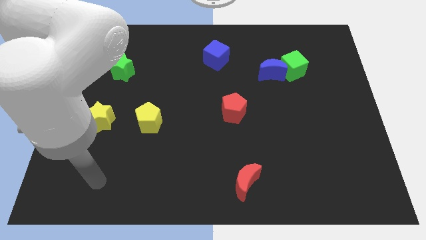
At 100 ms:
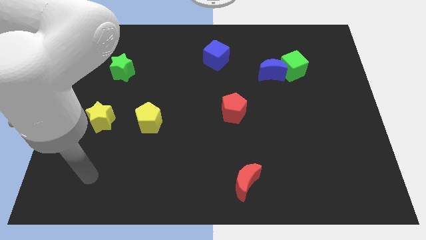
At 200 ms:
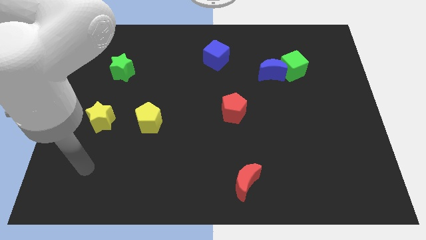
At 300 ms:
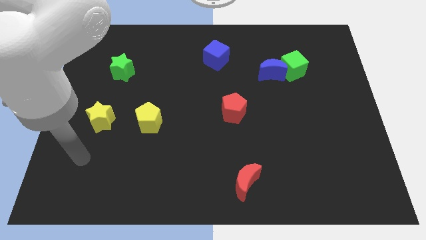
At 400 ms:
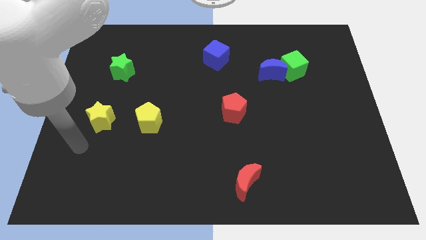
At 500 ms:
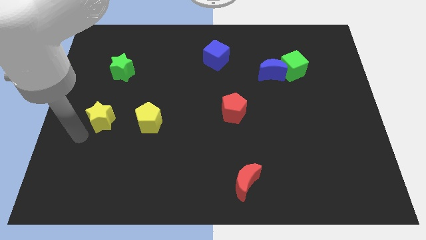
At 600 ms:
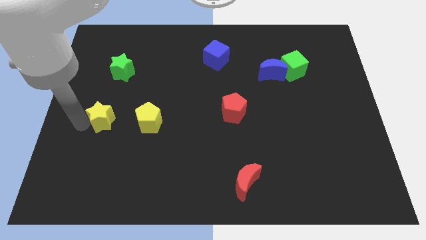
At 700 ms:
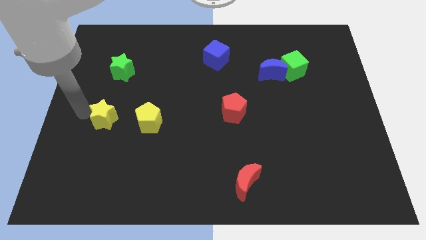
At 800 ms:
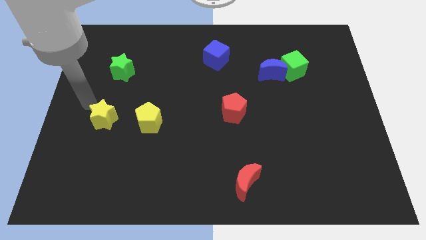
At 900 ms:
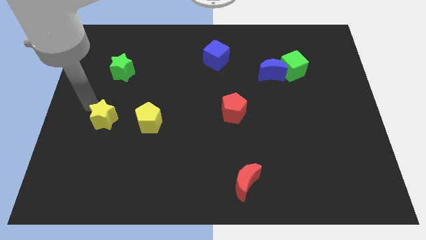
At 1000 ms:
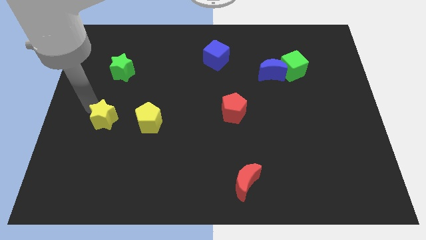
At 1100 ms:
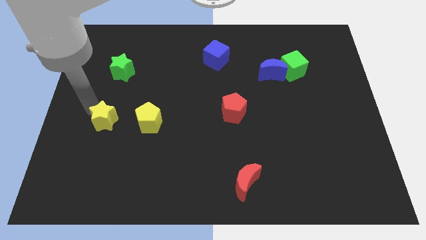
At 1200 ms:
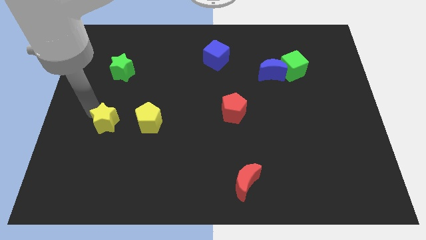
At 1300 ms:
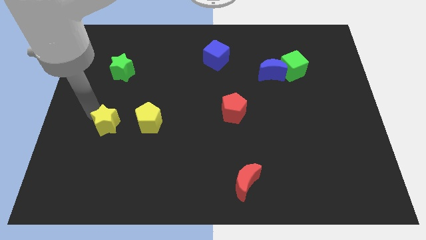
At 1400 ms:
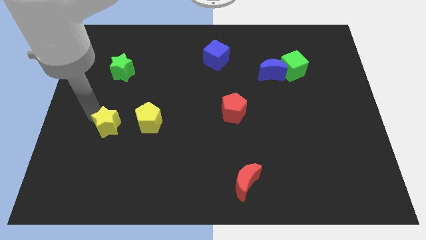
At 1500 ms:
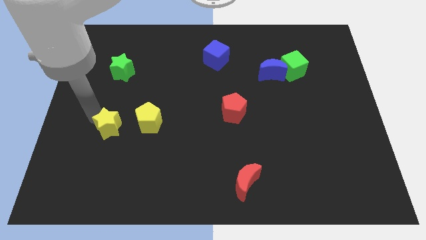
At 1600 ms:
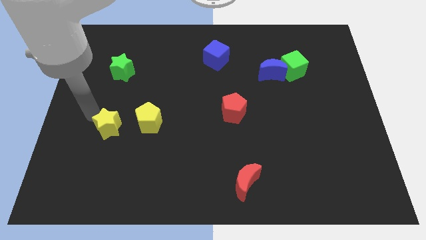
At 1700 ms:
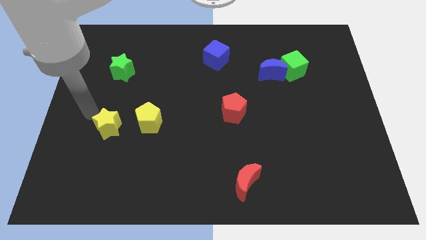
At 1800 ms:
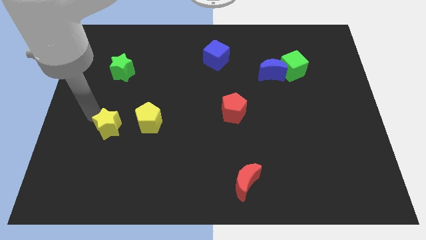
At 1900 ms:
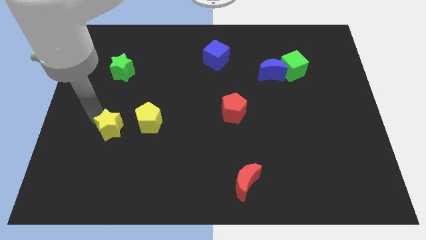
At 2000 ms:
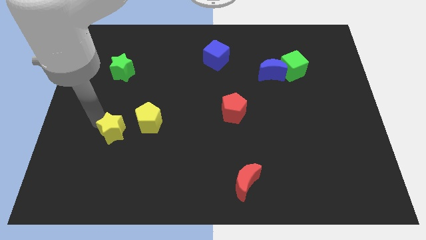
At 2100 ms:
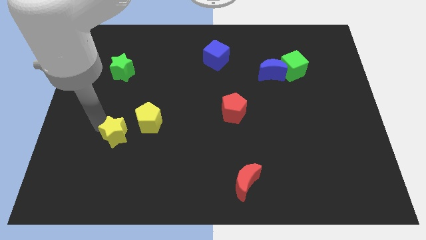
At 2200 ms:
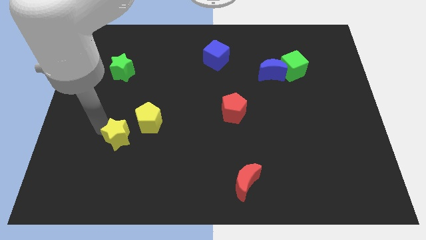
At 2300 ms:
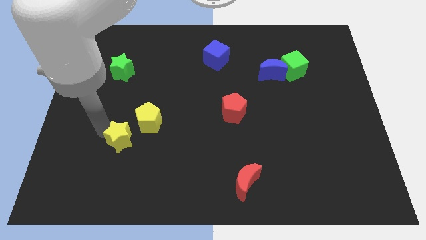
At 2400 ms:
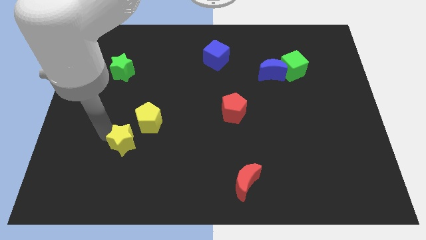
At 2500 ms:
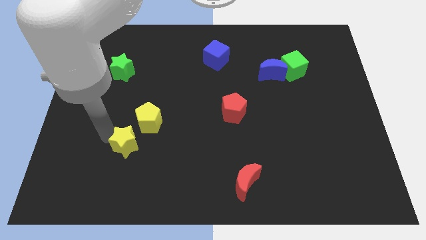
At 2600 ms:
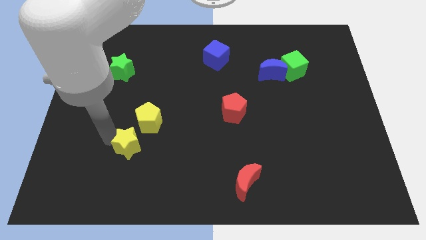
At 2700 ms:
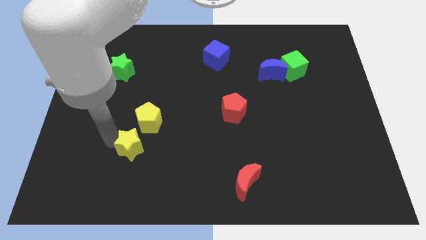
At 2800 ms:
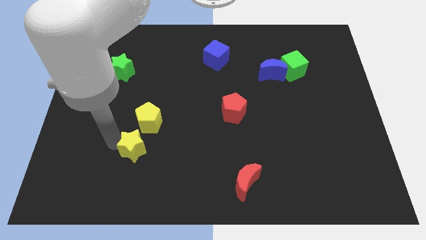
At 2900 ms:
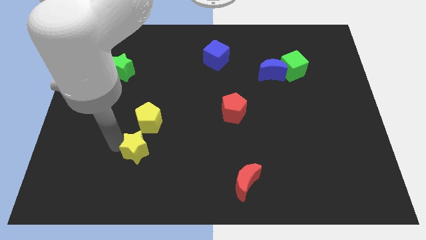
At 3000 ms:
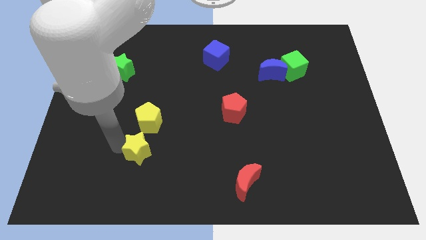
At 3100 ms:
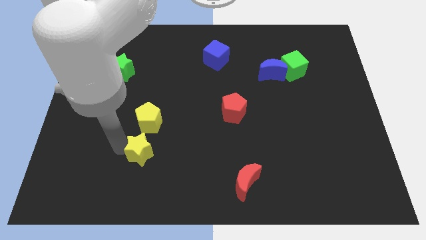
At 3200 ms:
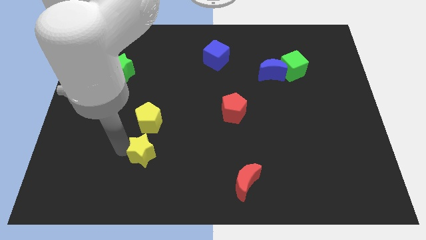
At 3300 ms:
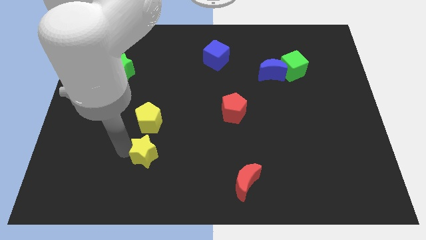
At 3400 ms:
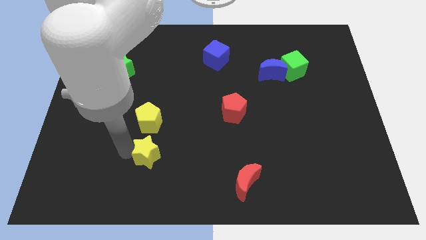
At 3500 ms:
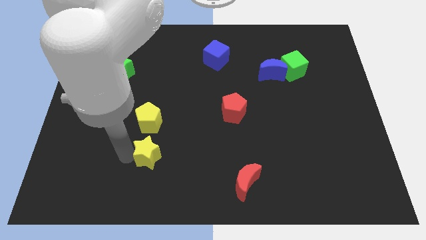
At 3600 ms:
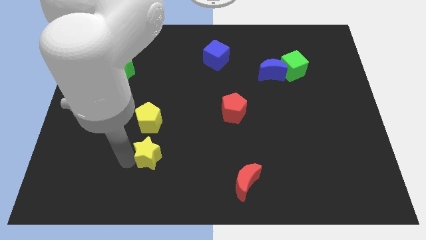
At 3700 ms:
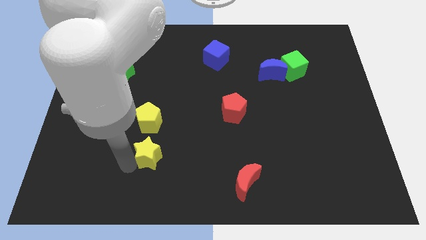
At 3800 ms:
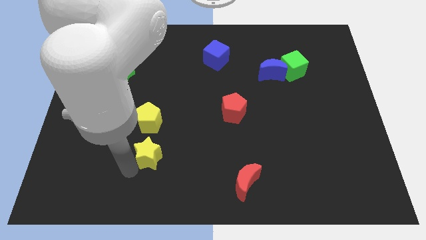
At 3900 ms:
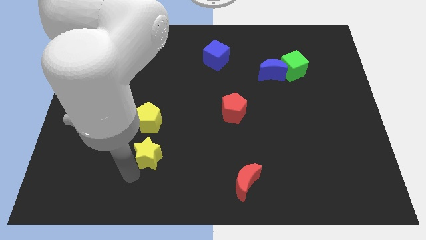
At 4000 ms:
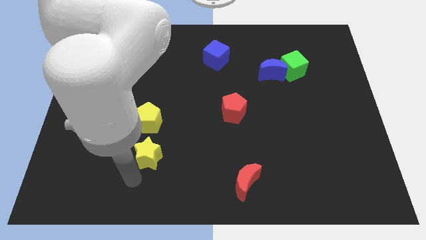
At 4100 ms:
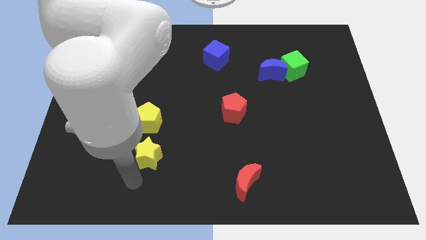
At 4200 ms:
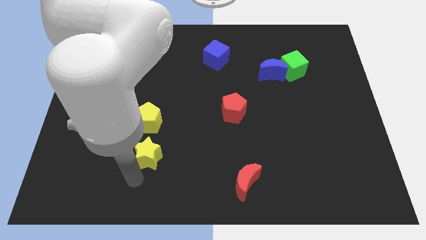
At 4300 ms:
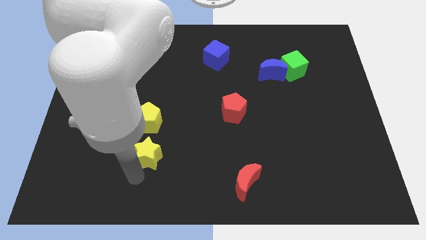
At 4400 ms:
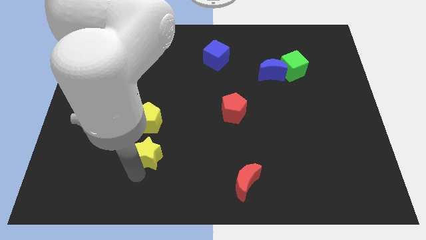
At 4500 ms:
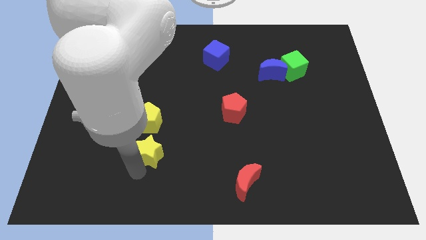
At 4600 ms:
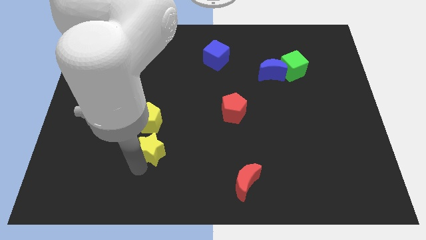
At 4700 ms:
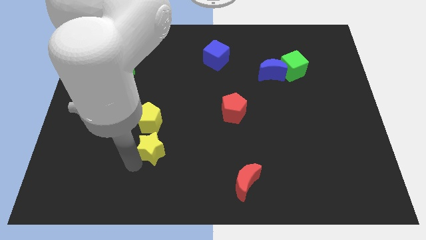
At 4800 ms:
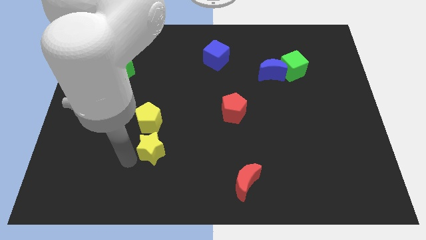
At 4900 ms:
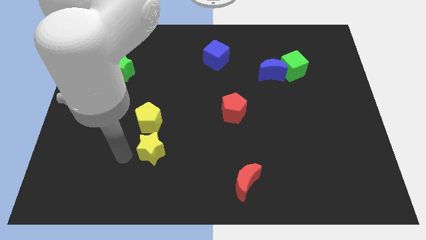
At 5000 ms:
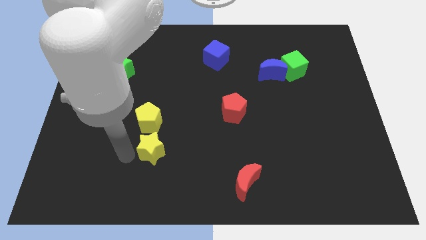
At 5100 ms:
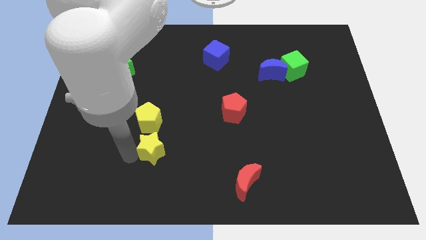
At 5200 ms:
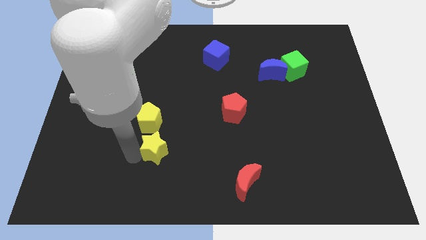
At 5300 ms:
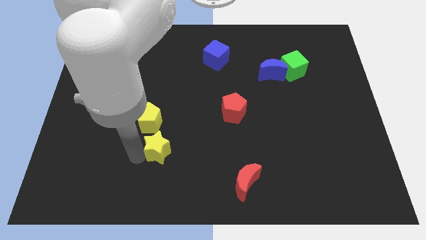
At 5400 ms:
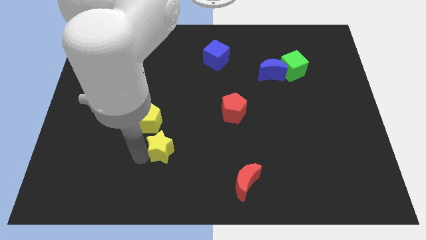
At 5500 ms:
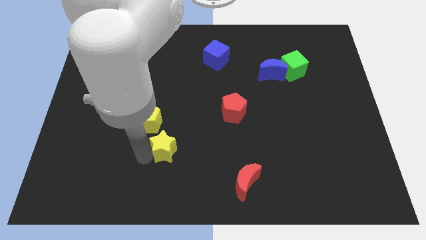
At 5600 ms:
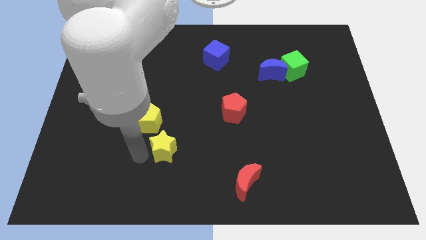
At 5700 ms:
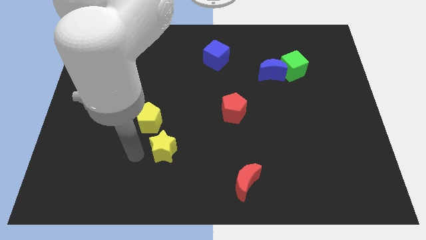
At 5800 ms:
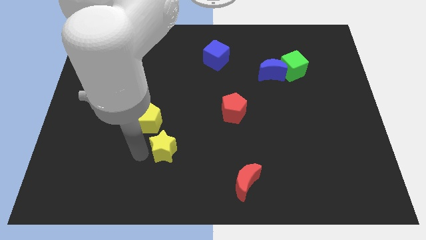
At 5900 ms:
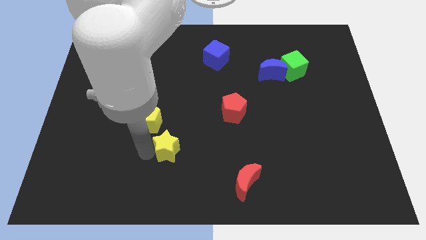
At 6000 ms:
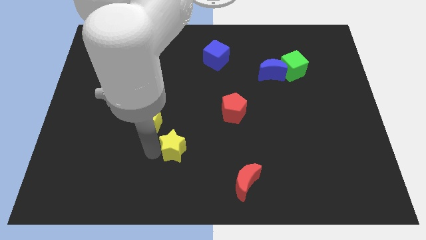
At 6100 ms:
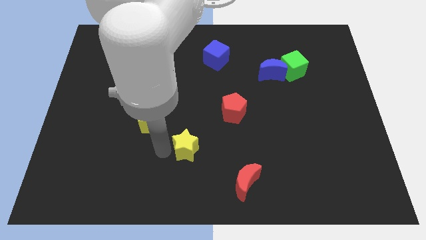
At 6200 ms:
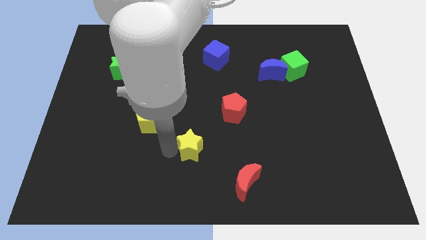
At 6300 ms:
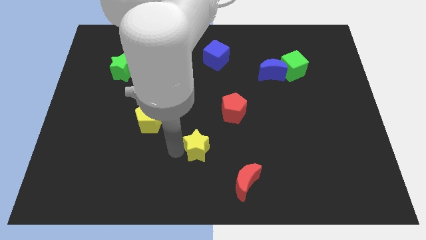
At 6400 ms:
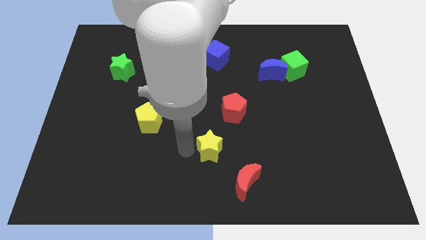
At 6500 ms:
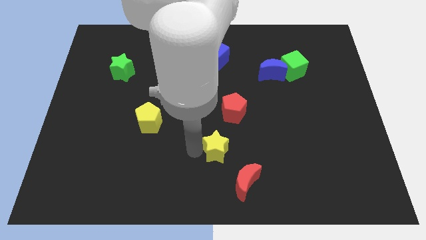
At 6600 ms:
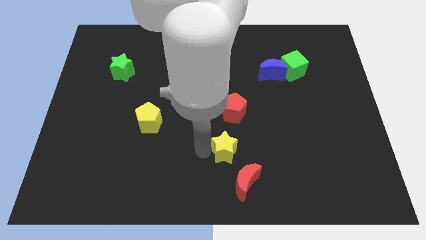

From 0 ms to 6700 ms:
move the yellow star above the red moon

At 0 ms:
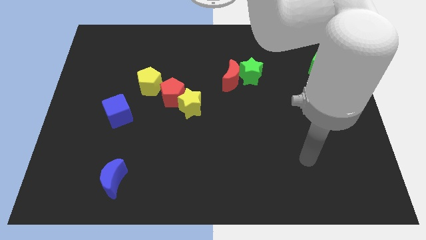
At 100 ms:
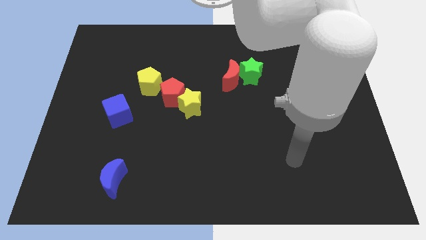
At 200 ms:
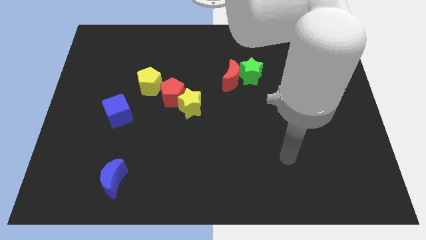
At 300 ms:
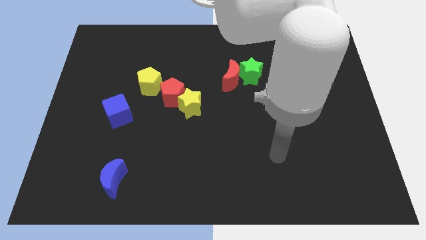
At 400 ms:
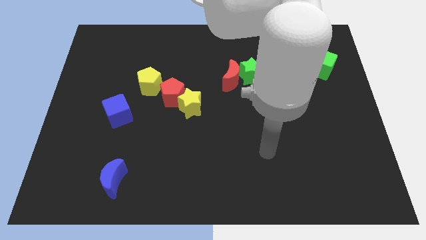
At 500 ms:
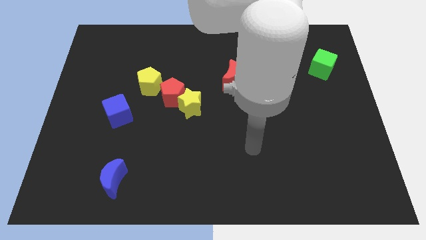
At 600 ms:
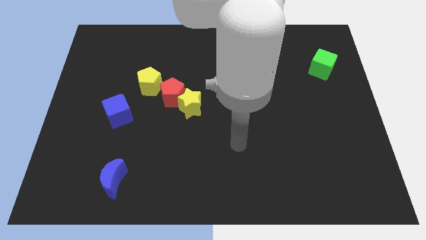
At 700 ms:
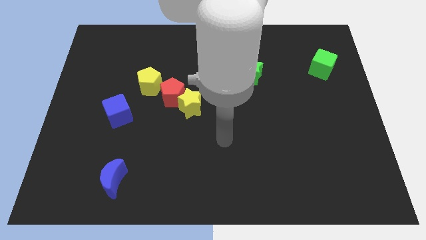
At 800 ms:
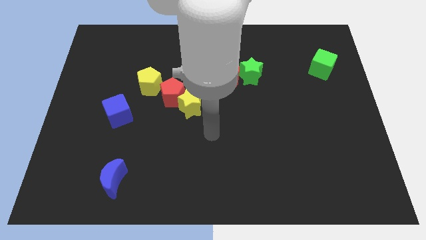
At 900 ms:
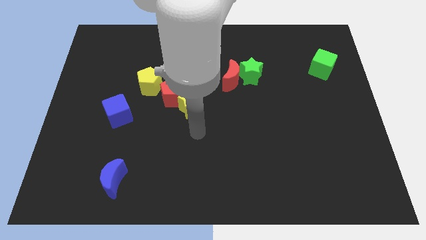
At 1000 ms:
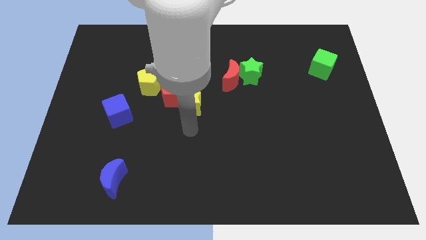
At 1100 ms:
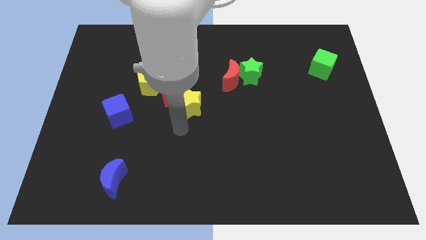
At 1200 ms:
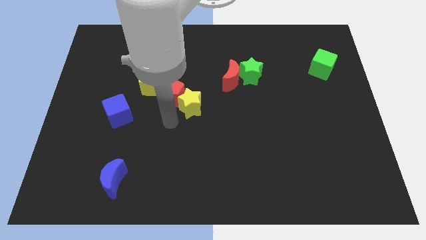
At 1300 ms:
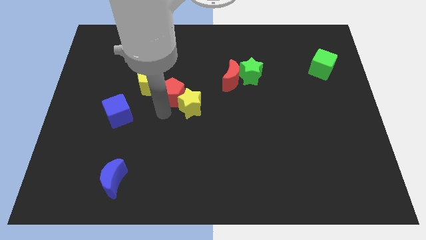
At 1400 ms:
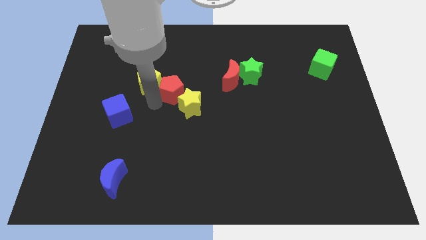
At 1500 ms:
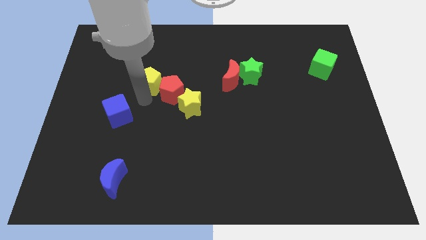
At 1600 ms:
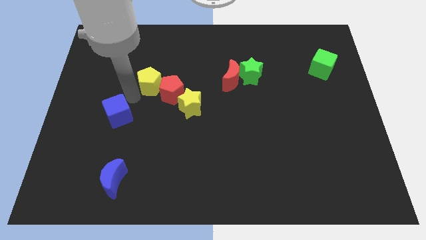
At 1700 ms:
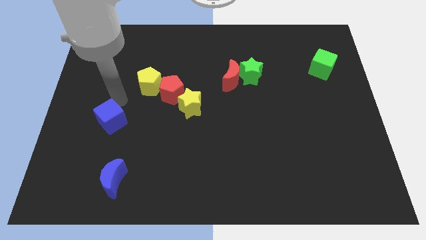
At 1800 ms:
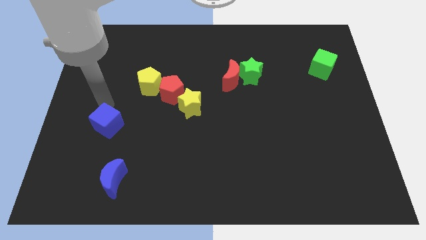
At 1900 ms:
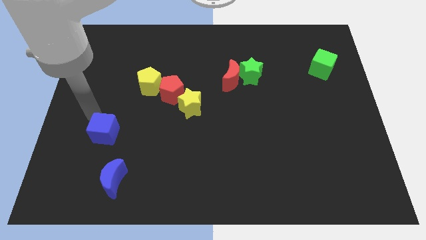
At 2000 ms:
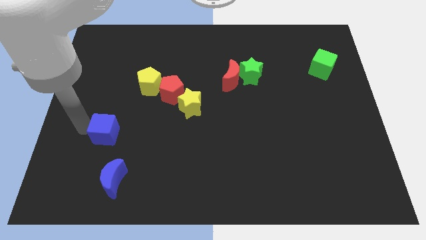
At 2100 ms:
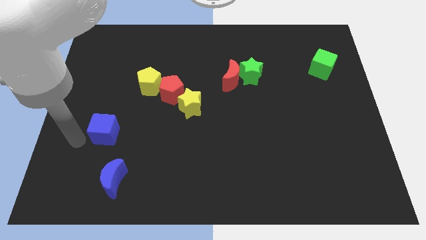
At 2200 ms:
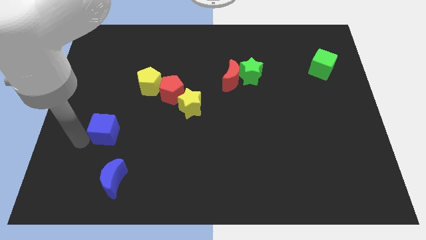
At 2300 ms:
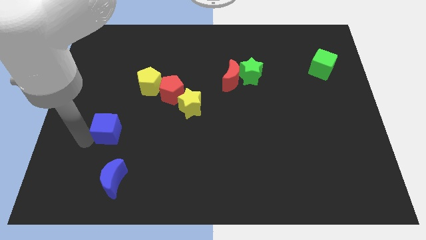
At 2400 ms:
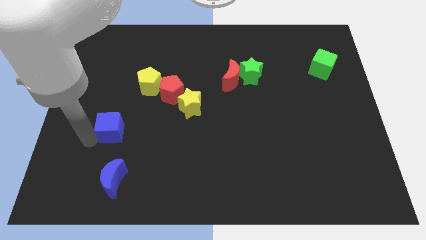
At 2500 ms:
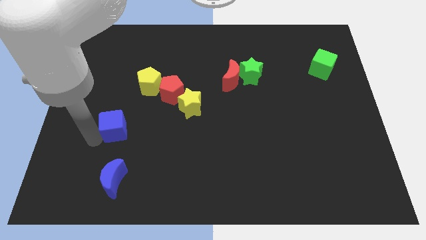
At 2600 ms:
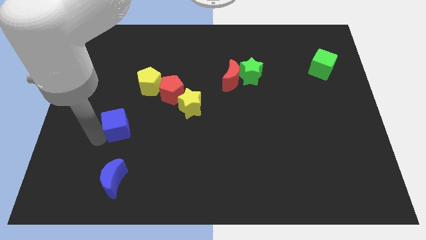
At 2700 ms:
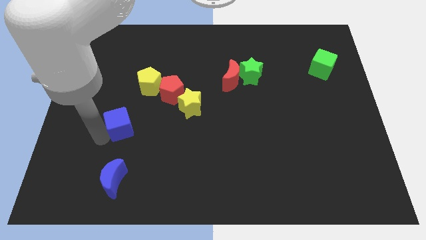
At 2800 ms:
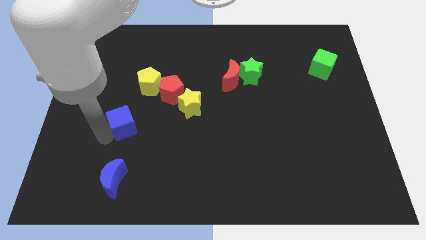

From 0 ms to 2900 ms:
slide the blue cube below the yellow pentagon
